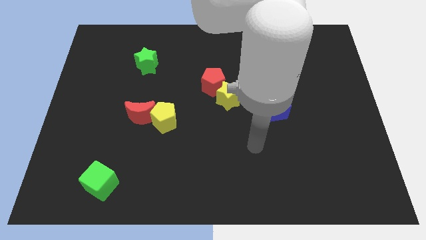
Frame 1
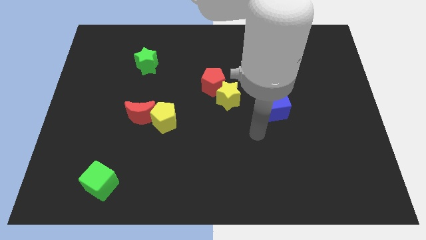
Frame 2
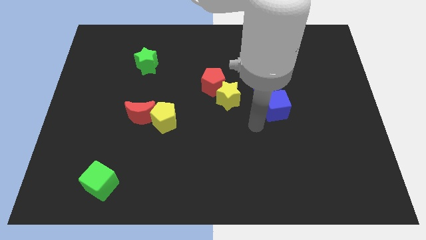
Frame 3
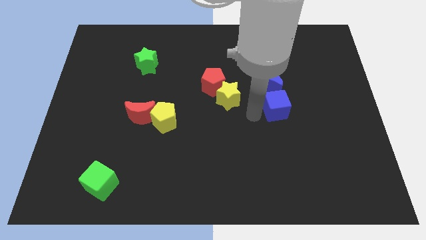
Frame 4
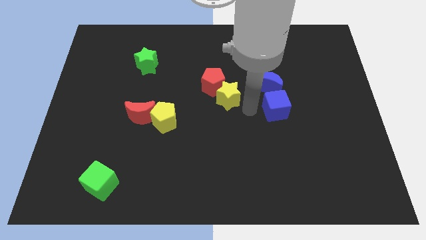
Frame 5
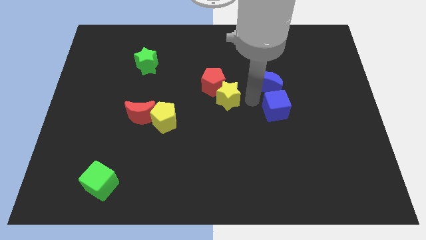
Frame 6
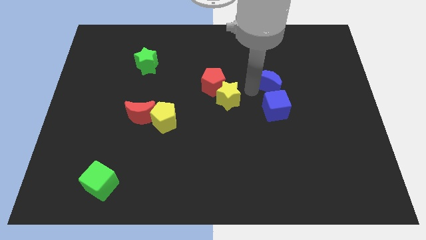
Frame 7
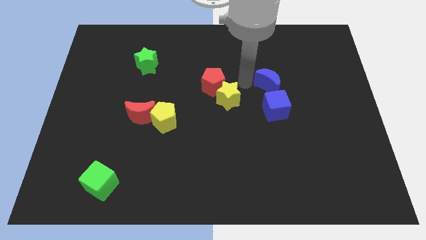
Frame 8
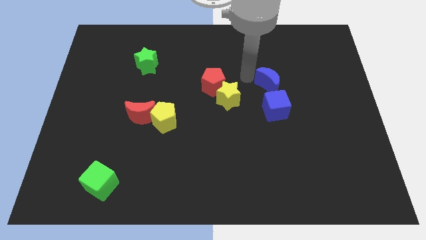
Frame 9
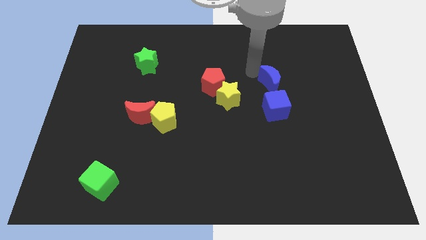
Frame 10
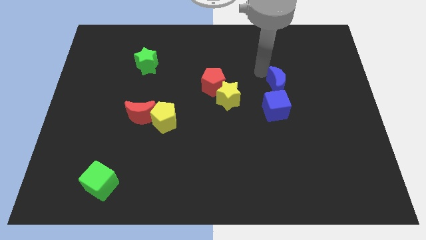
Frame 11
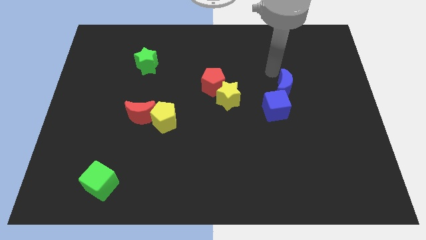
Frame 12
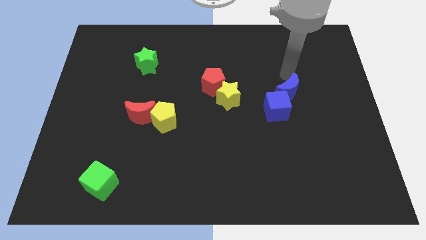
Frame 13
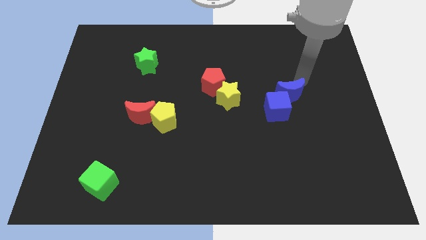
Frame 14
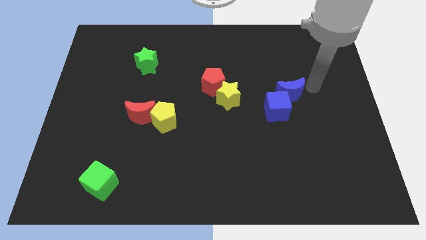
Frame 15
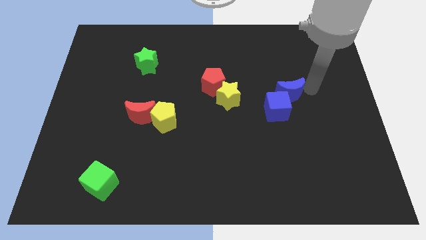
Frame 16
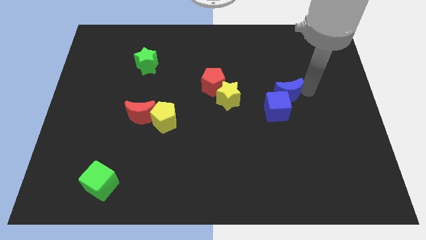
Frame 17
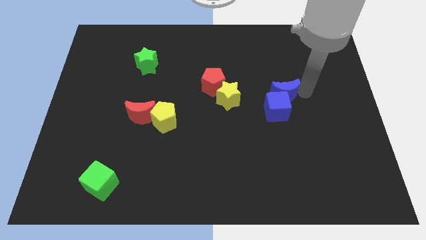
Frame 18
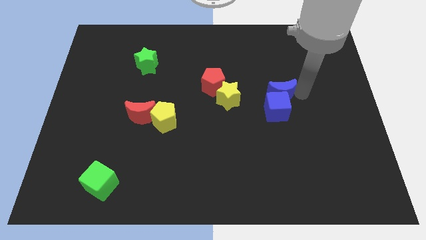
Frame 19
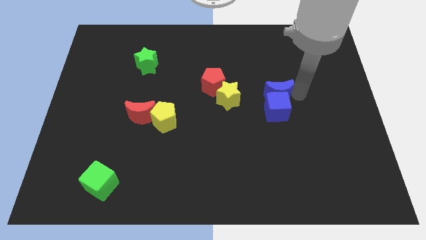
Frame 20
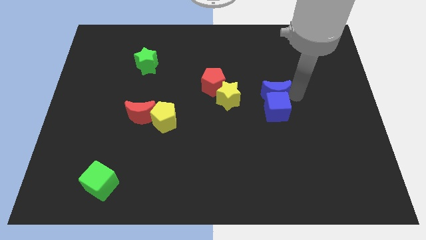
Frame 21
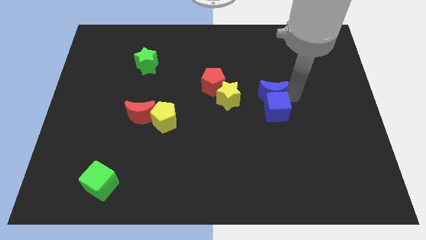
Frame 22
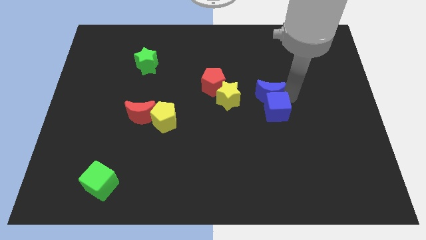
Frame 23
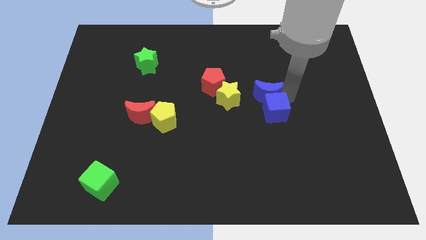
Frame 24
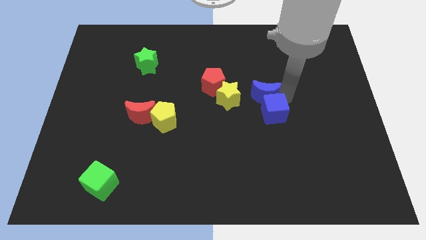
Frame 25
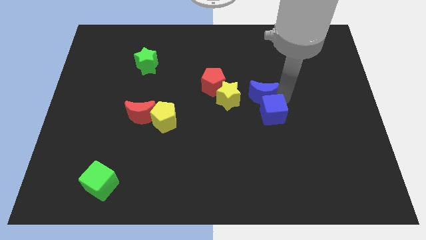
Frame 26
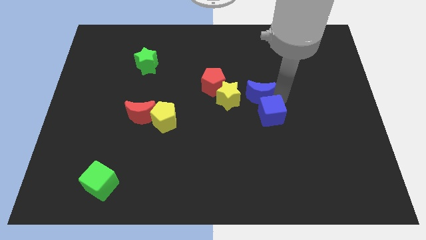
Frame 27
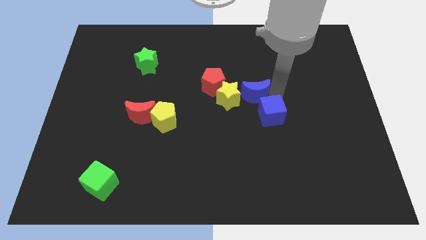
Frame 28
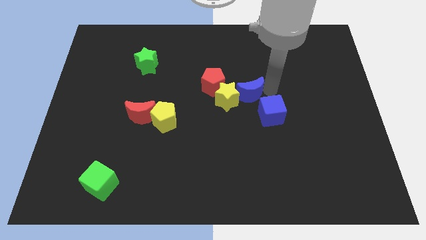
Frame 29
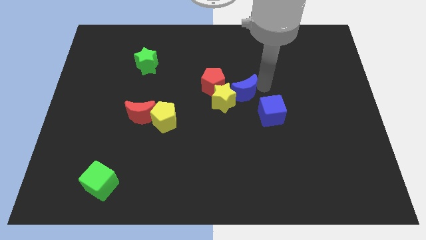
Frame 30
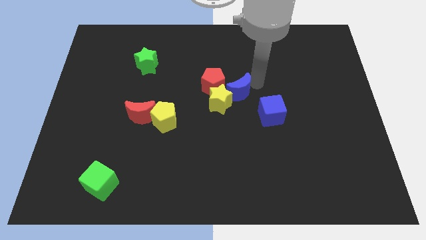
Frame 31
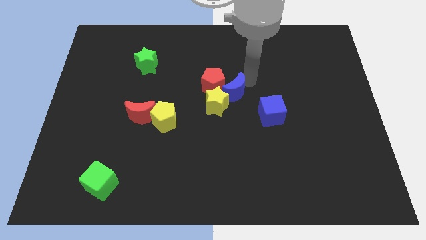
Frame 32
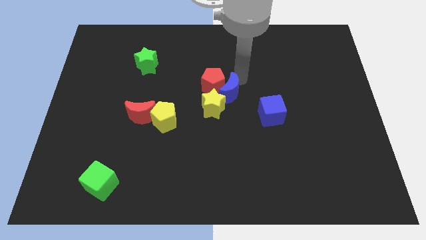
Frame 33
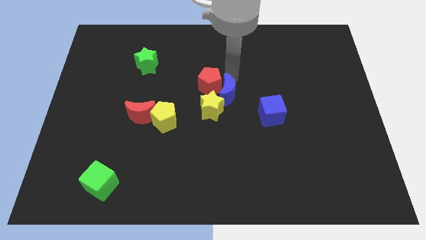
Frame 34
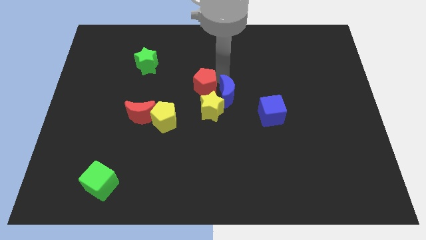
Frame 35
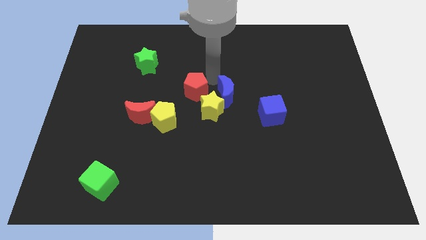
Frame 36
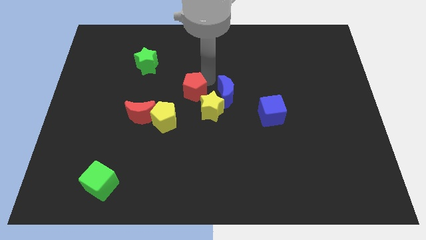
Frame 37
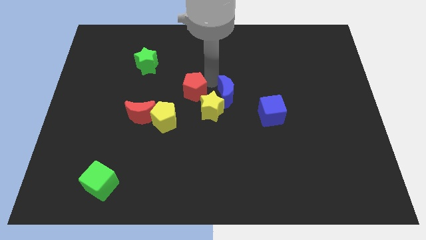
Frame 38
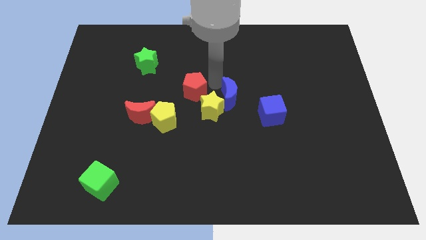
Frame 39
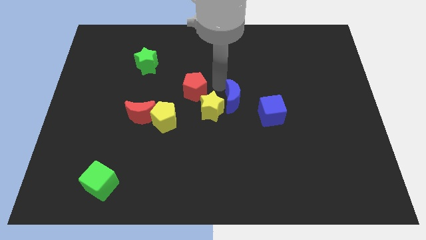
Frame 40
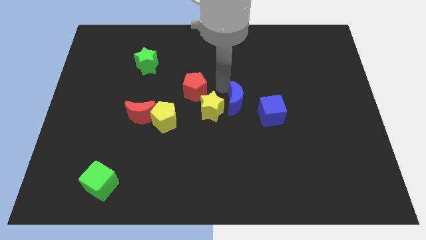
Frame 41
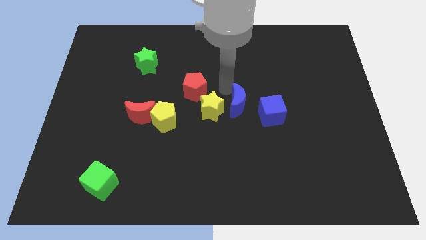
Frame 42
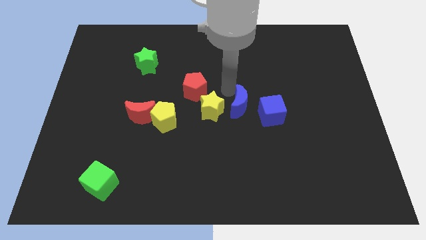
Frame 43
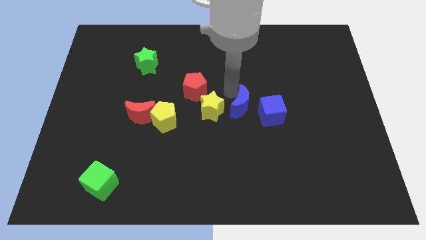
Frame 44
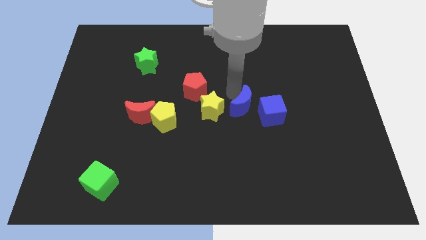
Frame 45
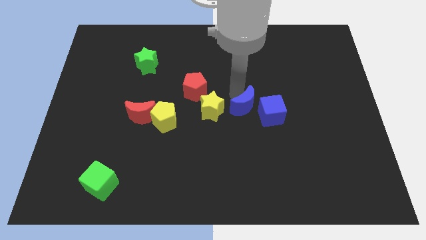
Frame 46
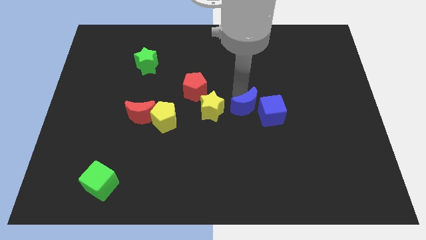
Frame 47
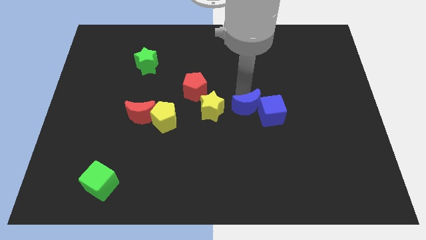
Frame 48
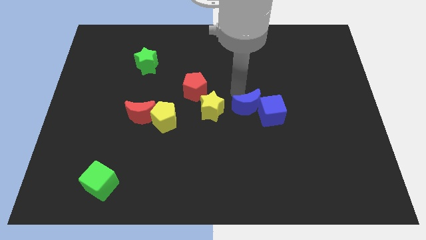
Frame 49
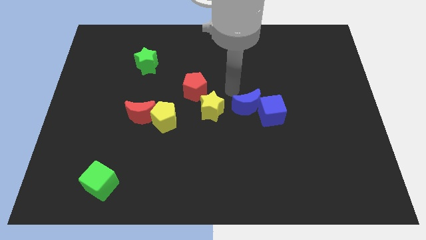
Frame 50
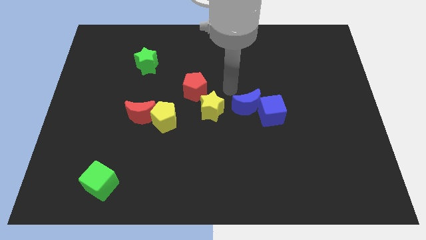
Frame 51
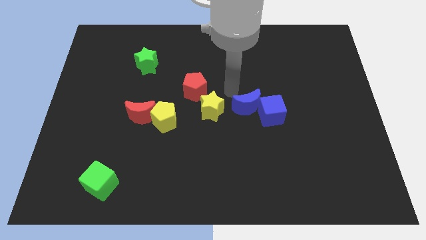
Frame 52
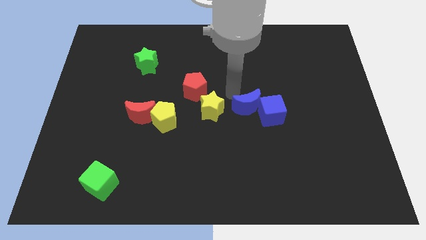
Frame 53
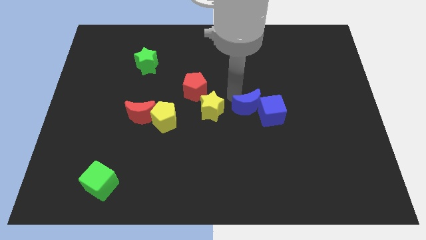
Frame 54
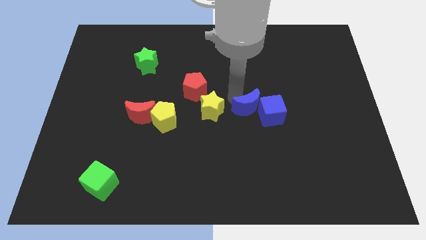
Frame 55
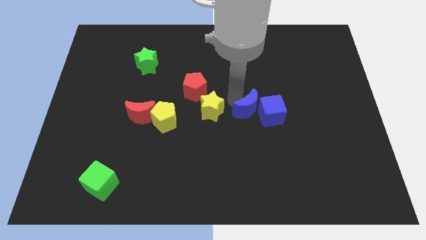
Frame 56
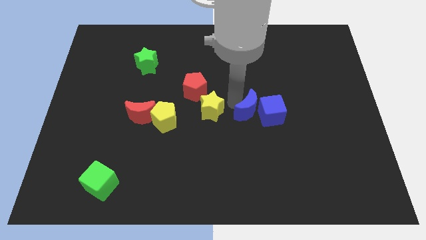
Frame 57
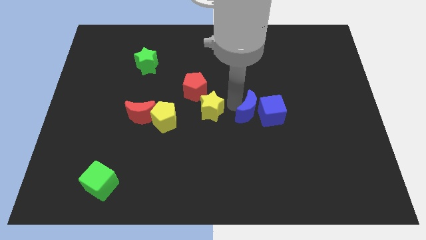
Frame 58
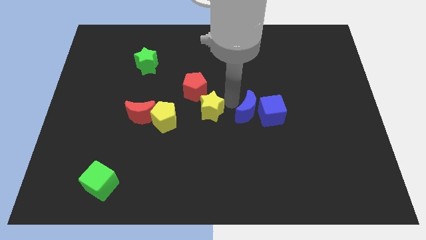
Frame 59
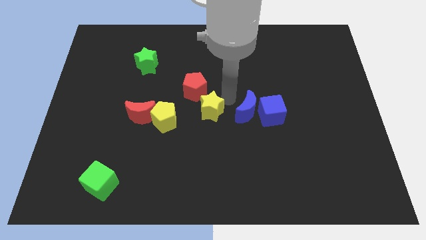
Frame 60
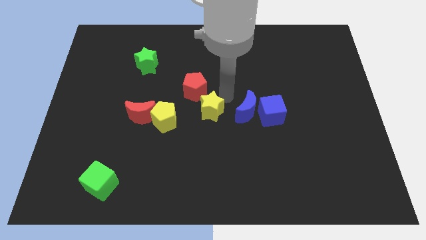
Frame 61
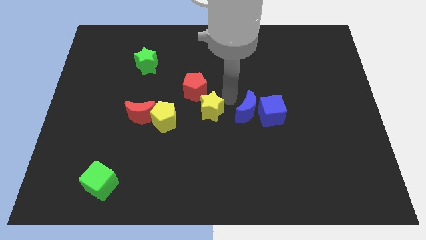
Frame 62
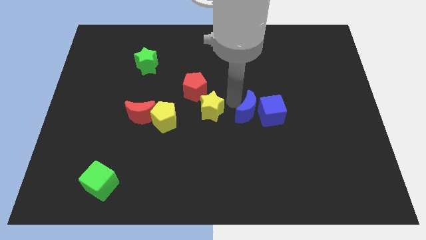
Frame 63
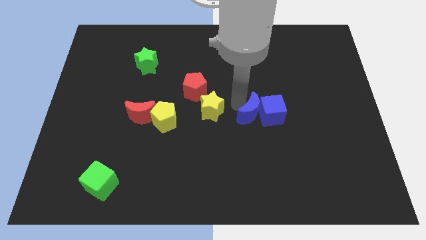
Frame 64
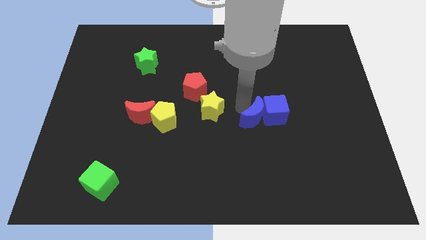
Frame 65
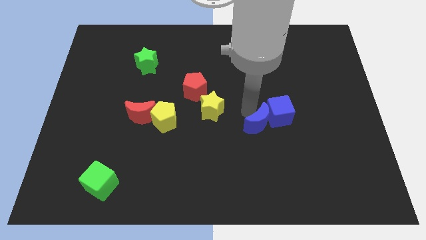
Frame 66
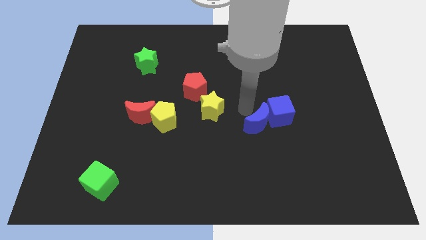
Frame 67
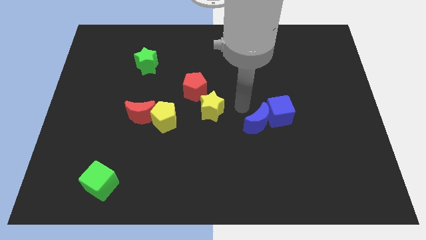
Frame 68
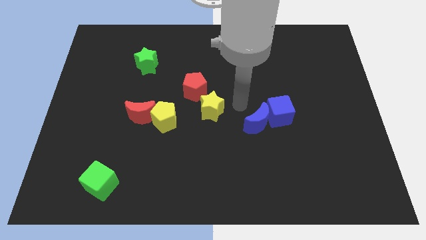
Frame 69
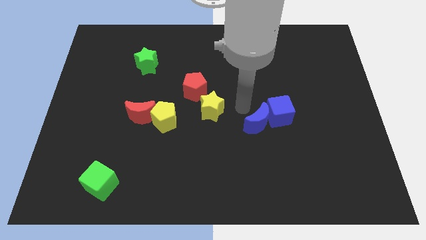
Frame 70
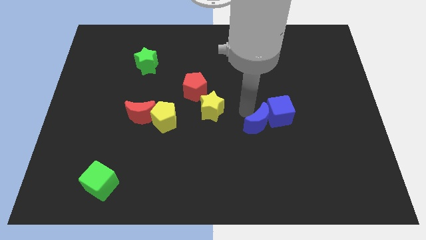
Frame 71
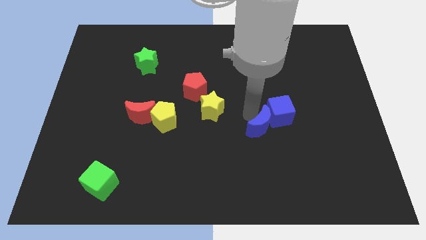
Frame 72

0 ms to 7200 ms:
move the blue moon below the blue cube

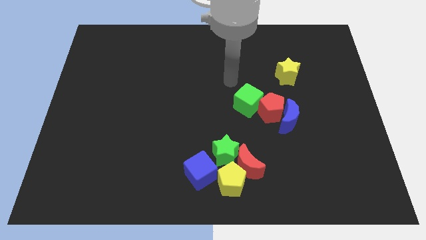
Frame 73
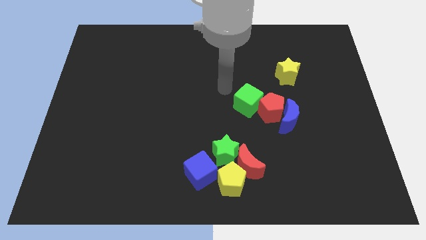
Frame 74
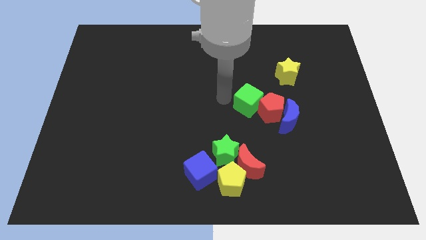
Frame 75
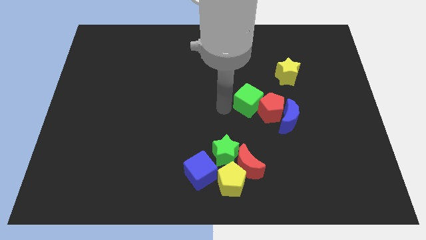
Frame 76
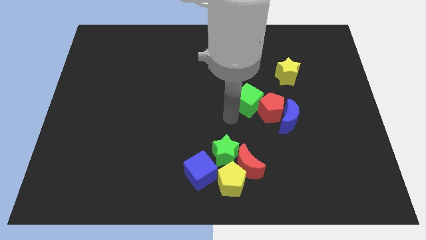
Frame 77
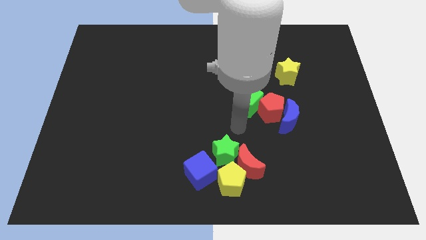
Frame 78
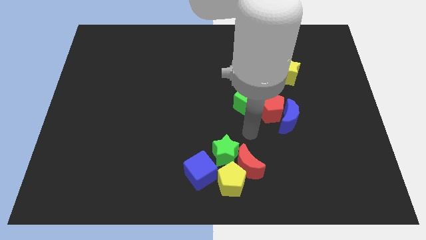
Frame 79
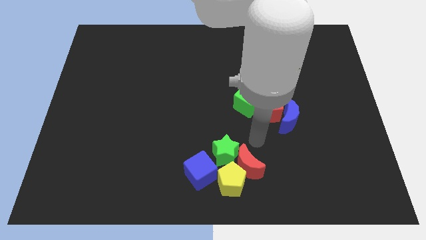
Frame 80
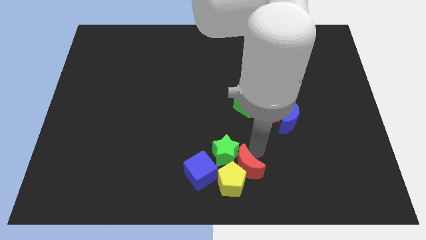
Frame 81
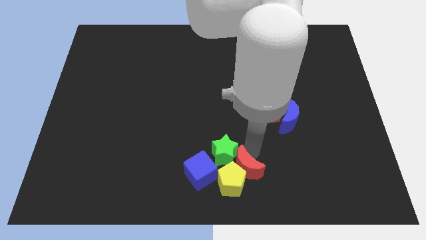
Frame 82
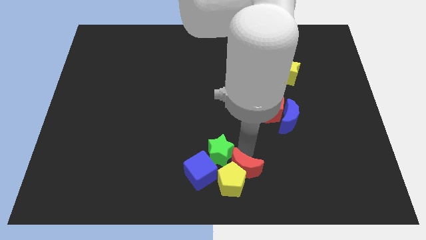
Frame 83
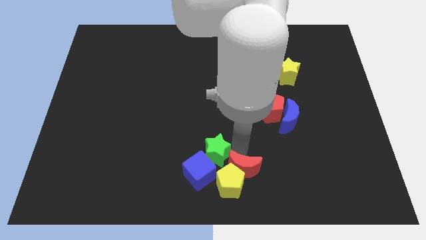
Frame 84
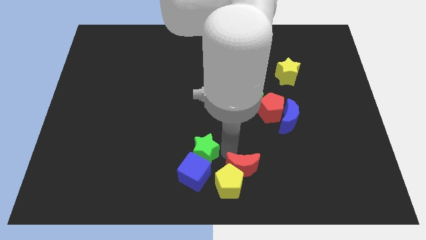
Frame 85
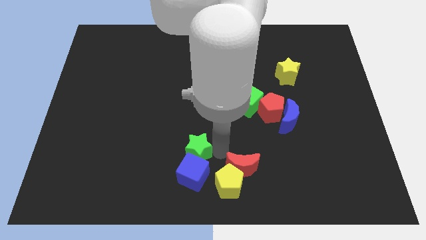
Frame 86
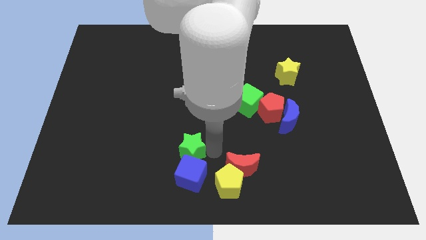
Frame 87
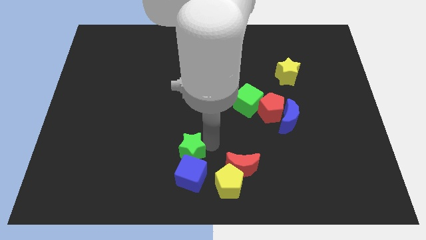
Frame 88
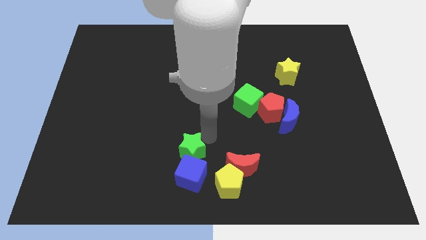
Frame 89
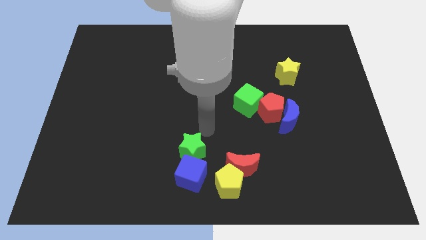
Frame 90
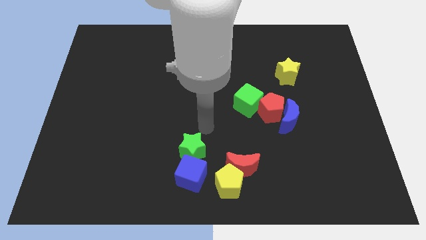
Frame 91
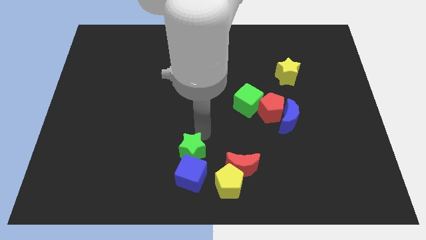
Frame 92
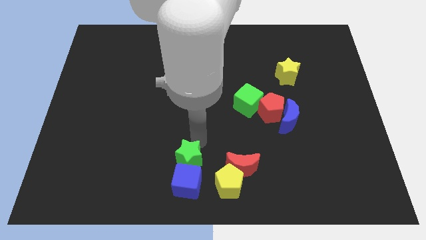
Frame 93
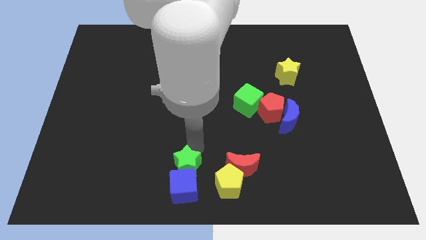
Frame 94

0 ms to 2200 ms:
put the green star to the left side of the yellow pentagon
